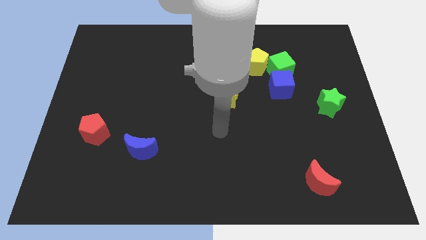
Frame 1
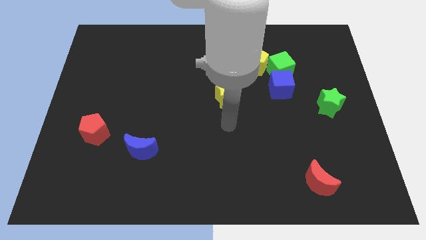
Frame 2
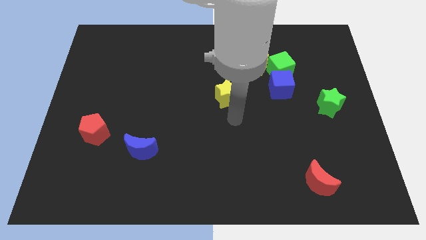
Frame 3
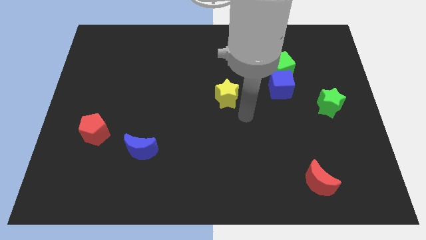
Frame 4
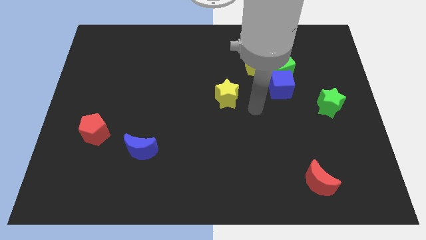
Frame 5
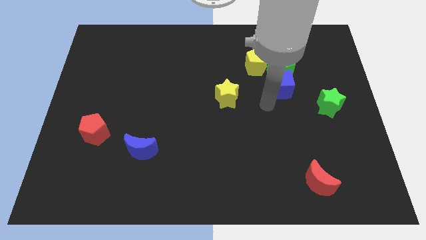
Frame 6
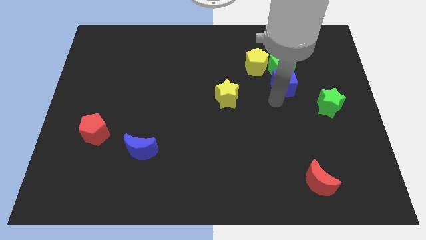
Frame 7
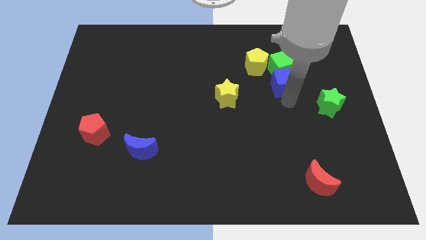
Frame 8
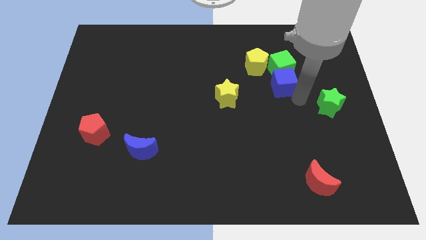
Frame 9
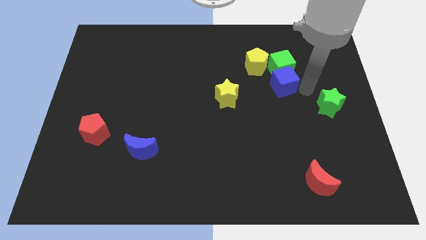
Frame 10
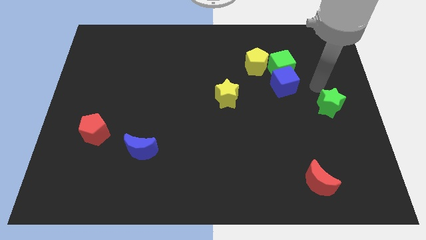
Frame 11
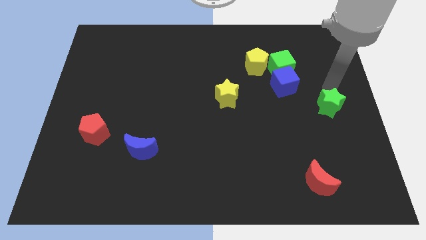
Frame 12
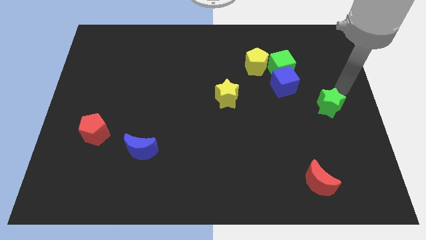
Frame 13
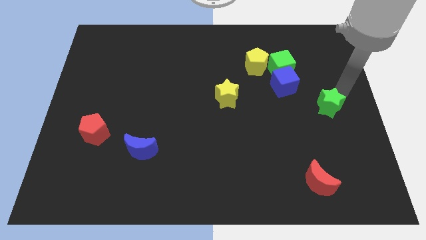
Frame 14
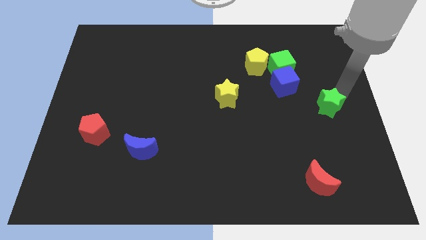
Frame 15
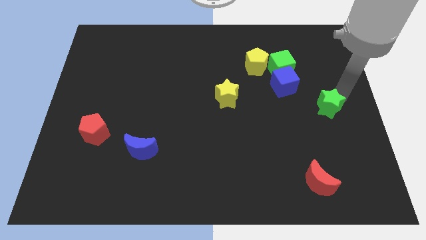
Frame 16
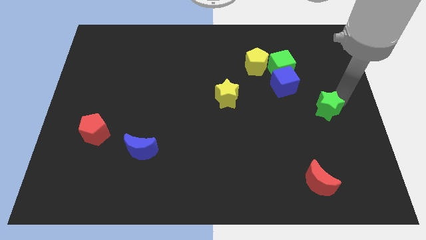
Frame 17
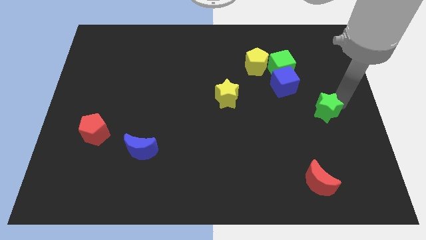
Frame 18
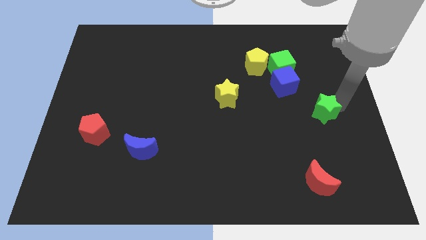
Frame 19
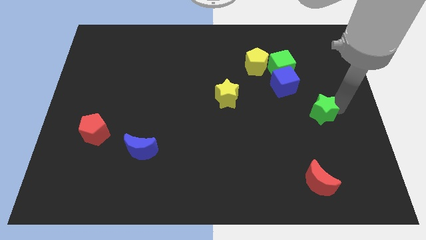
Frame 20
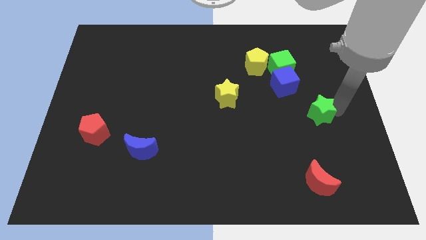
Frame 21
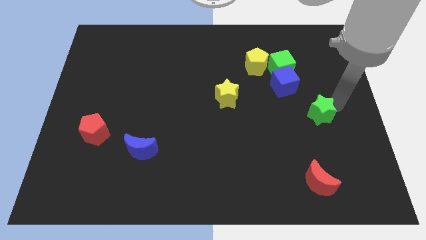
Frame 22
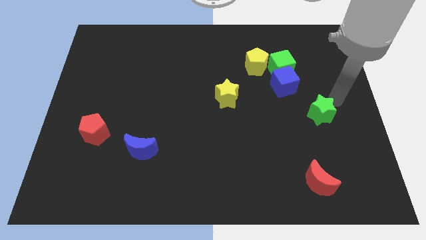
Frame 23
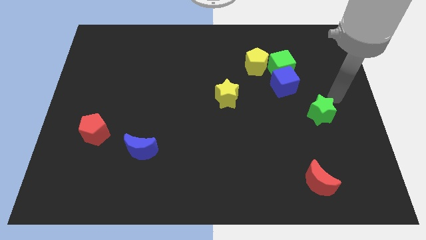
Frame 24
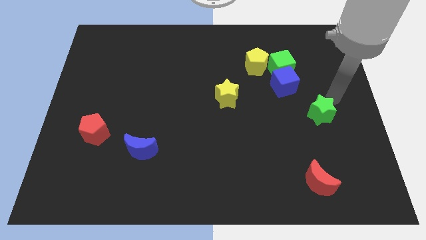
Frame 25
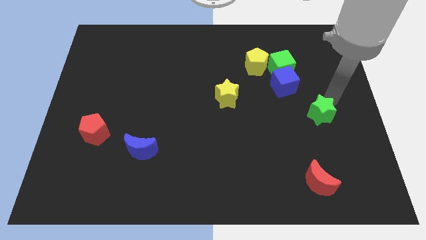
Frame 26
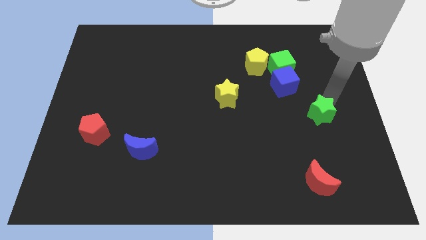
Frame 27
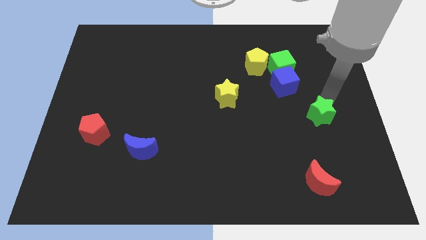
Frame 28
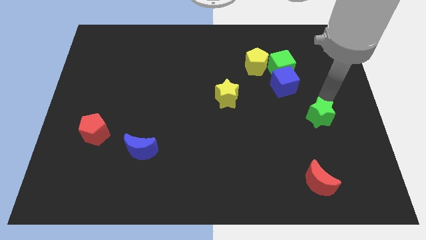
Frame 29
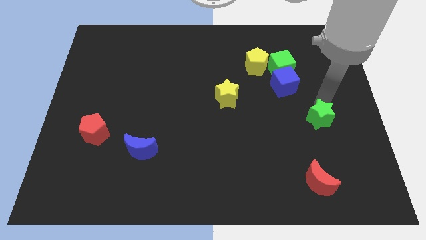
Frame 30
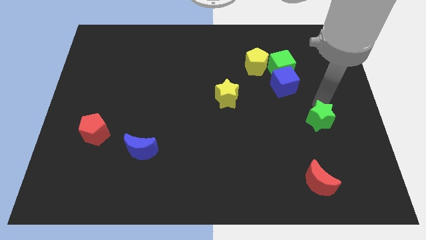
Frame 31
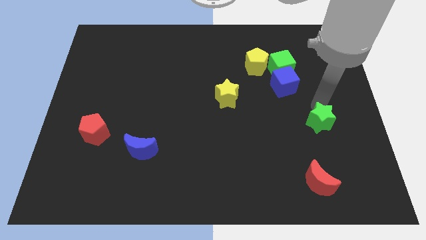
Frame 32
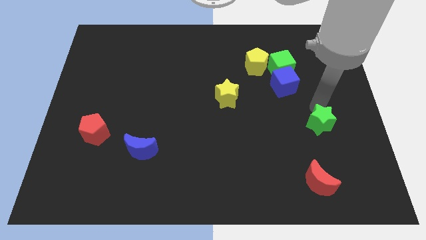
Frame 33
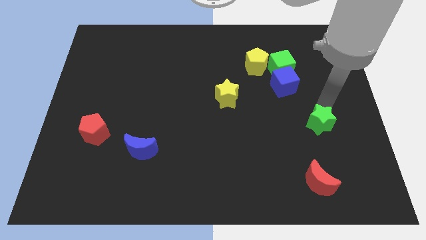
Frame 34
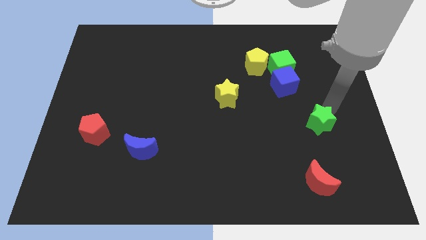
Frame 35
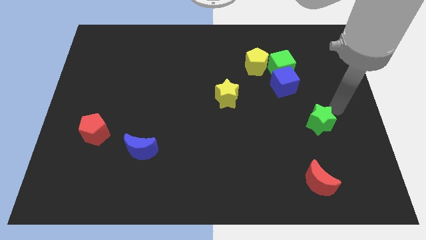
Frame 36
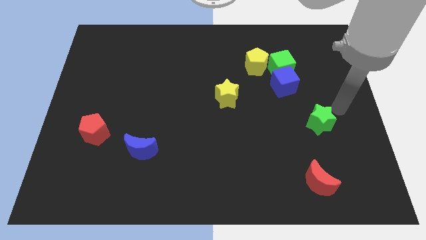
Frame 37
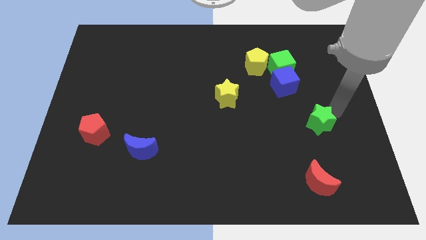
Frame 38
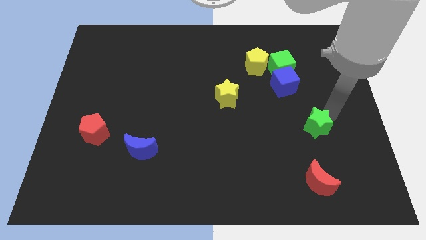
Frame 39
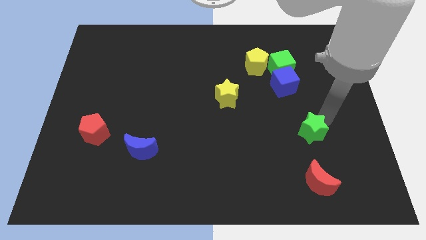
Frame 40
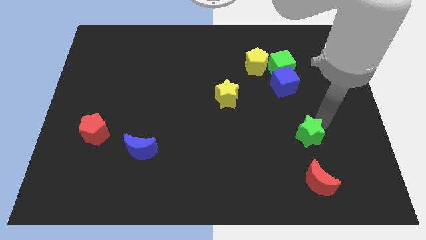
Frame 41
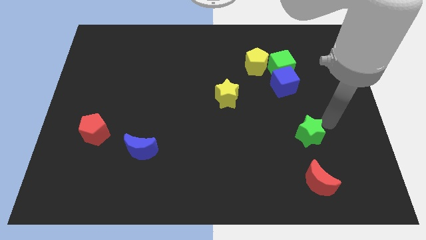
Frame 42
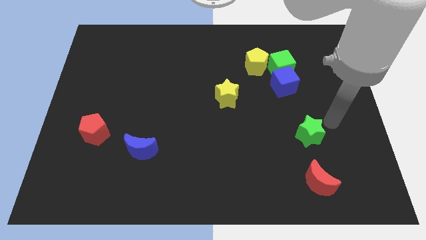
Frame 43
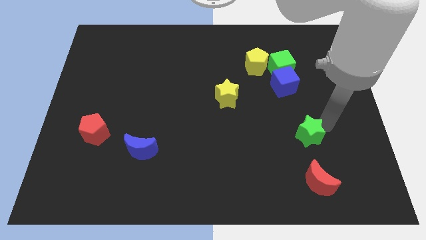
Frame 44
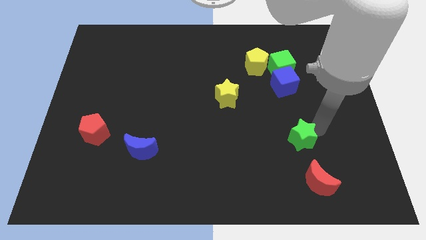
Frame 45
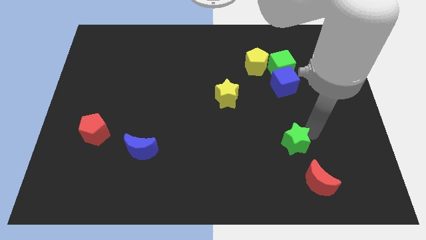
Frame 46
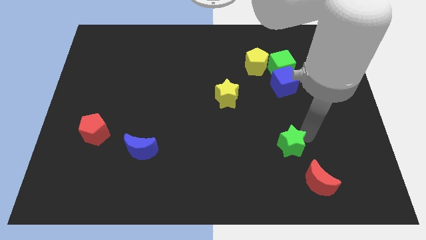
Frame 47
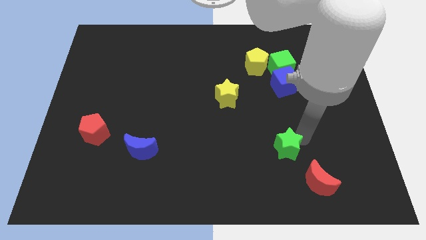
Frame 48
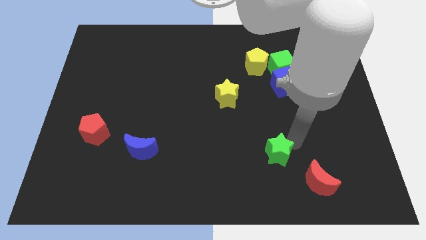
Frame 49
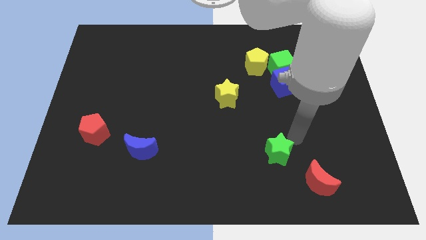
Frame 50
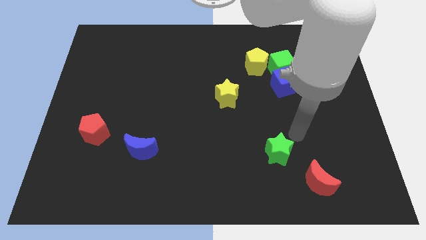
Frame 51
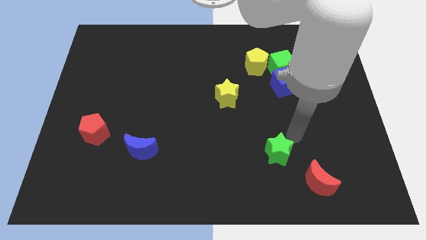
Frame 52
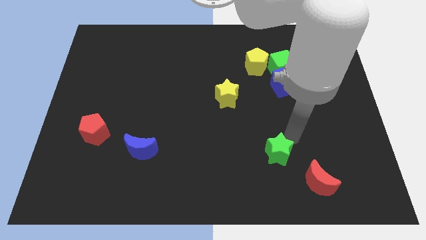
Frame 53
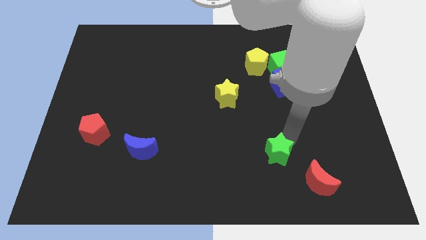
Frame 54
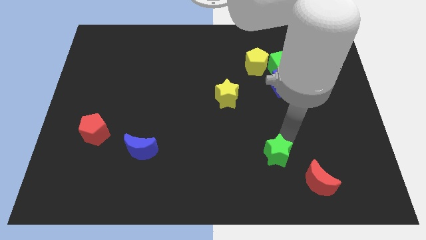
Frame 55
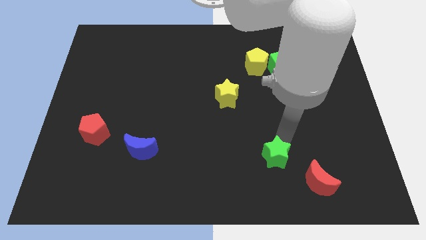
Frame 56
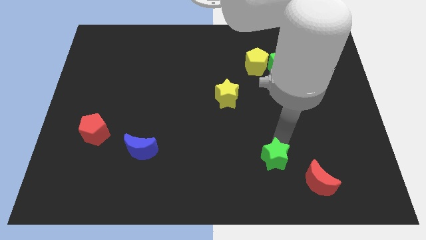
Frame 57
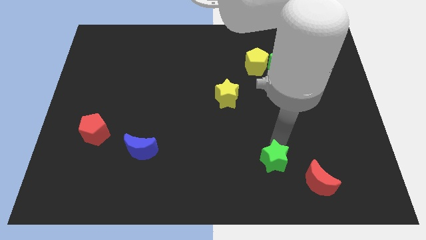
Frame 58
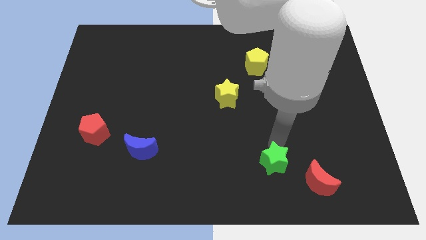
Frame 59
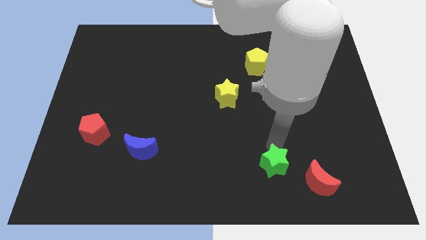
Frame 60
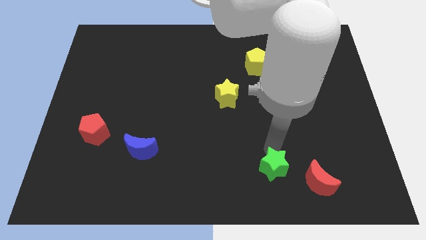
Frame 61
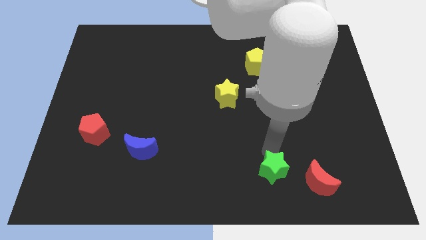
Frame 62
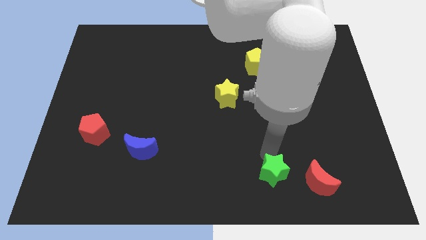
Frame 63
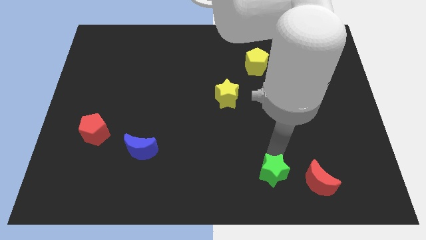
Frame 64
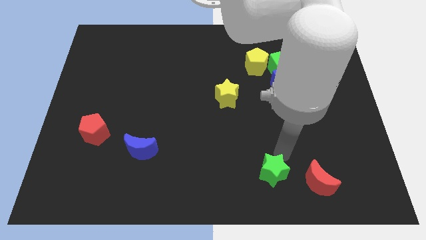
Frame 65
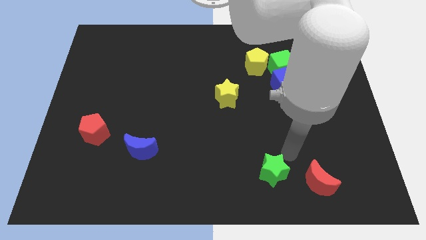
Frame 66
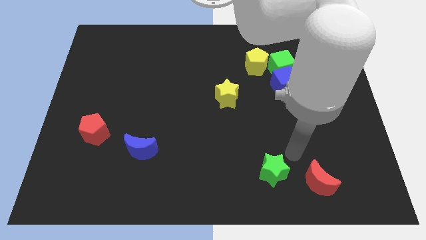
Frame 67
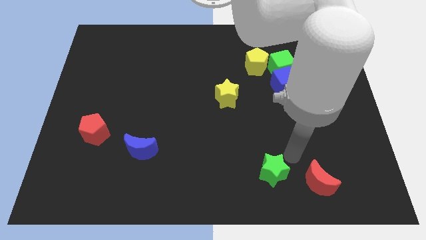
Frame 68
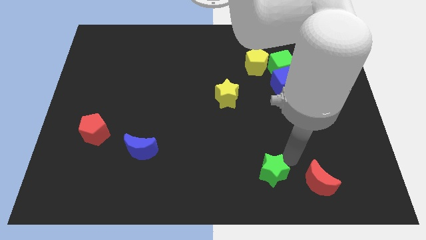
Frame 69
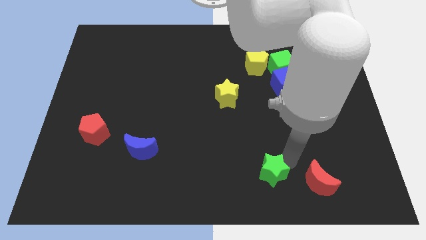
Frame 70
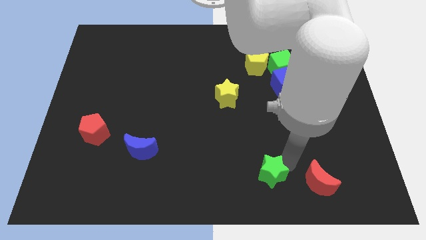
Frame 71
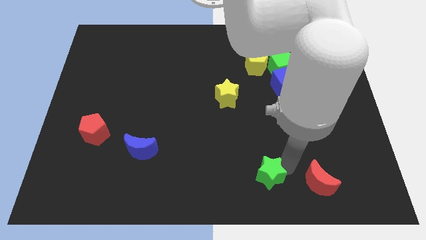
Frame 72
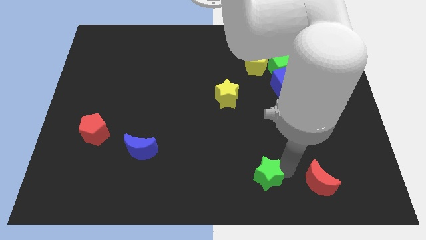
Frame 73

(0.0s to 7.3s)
put the green star to the bottom
